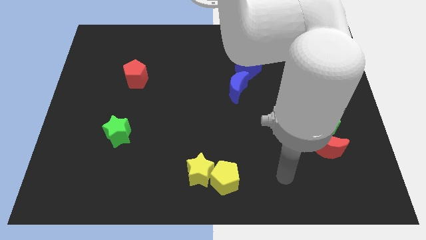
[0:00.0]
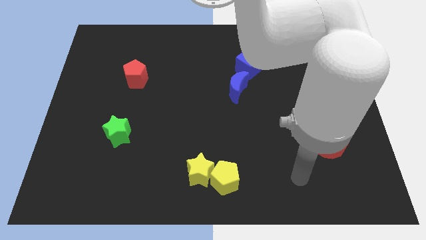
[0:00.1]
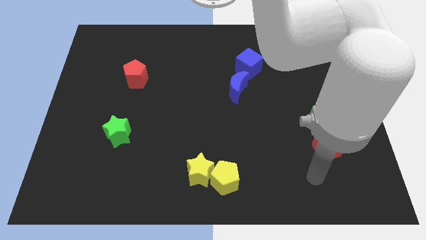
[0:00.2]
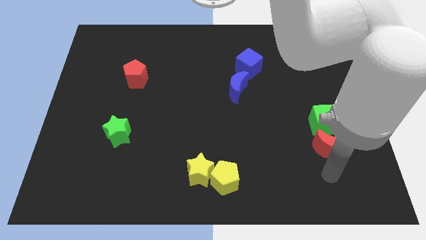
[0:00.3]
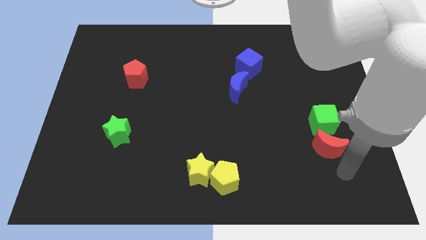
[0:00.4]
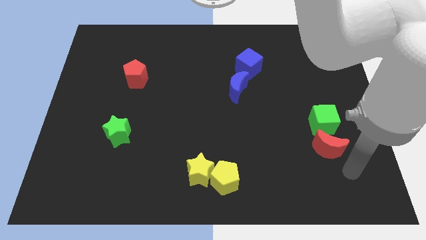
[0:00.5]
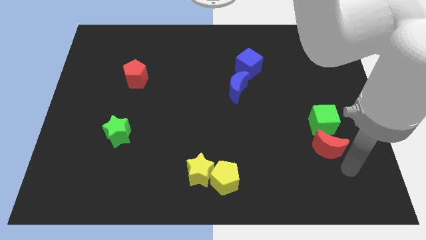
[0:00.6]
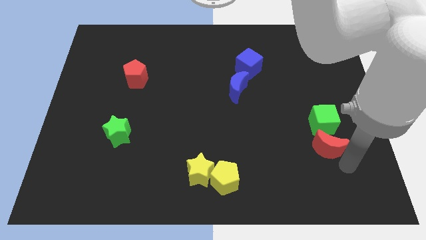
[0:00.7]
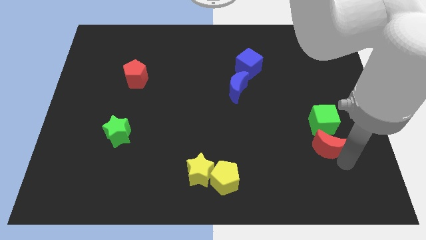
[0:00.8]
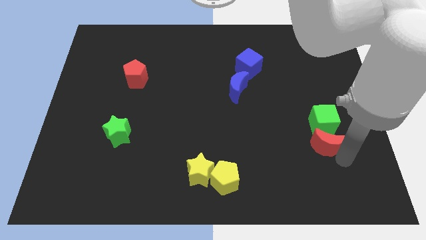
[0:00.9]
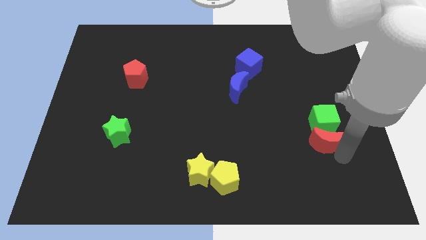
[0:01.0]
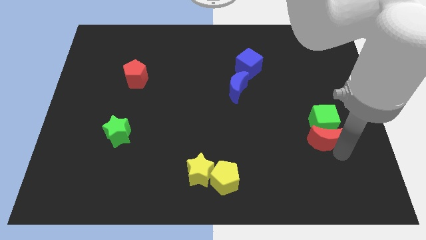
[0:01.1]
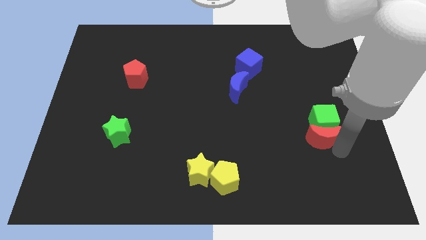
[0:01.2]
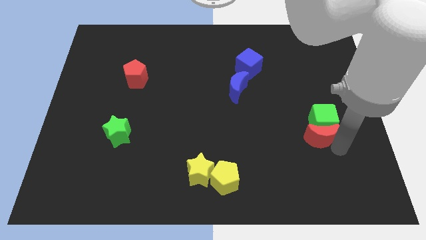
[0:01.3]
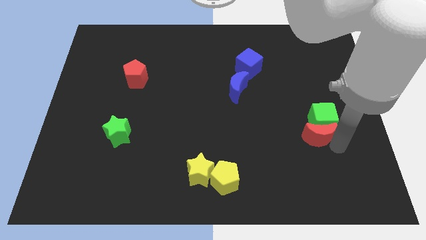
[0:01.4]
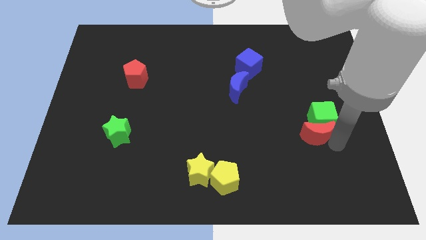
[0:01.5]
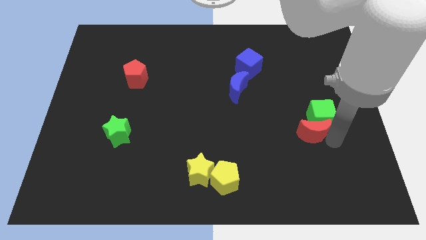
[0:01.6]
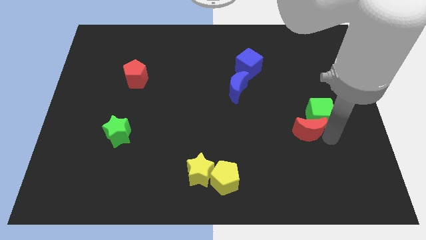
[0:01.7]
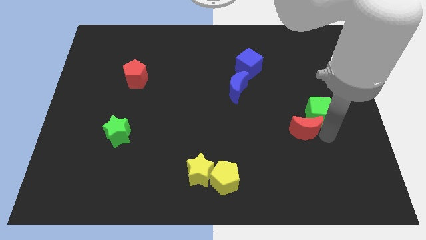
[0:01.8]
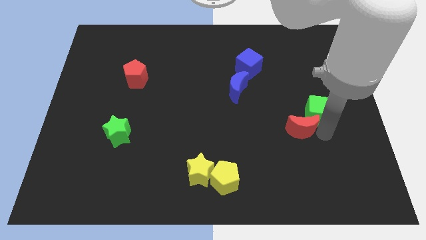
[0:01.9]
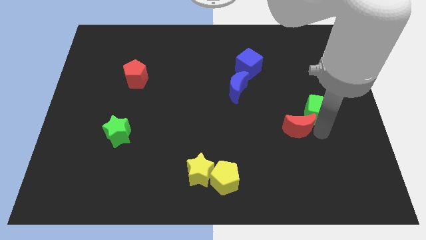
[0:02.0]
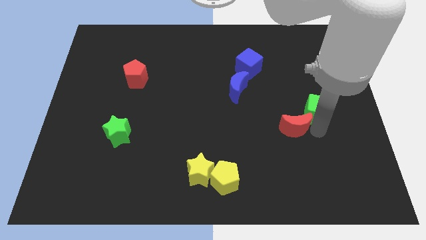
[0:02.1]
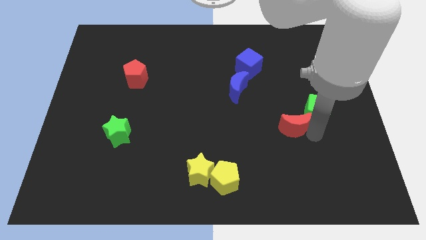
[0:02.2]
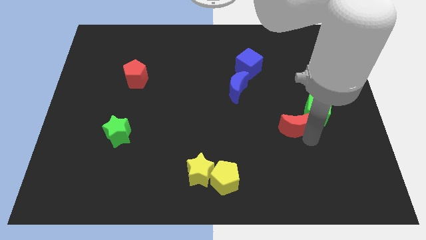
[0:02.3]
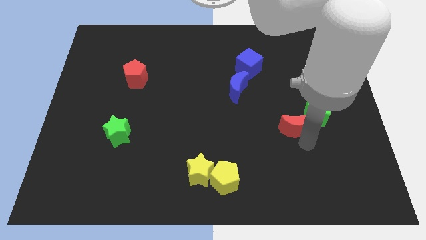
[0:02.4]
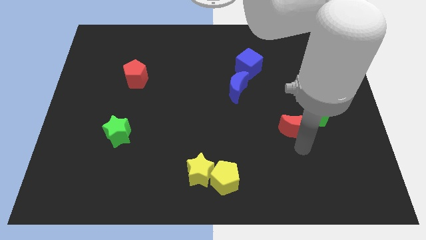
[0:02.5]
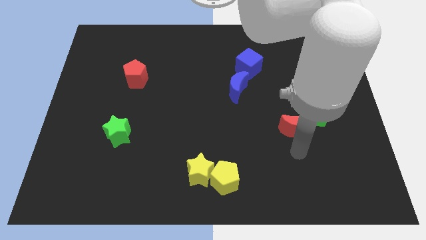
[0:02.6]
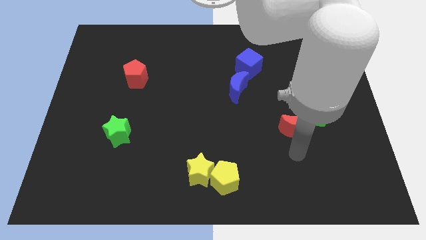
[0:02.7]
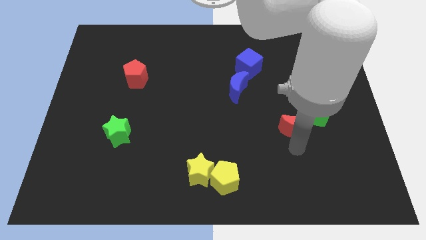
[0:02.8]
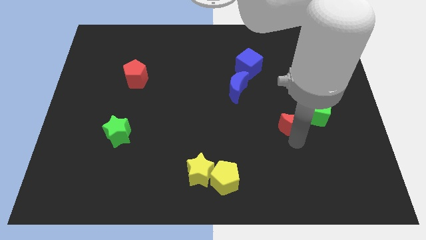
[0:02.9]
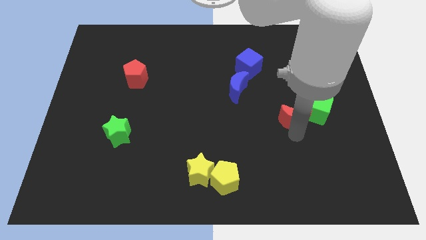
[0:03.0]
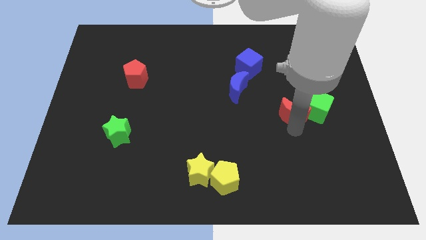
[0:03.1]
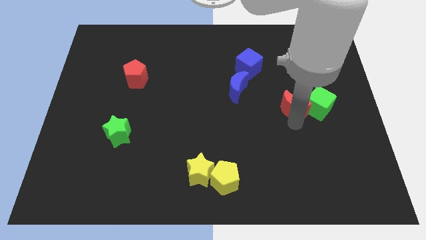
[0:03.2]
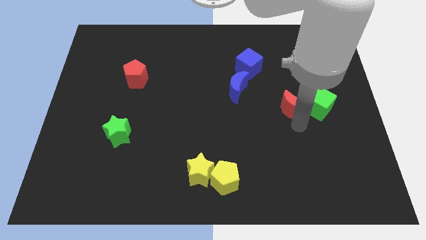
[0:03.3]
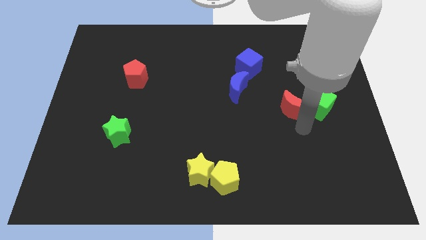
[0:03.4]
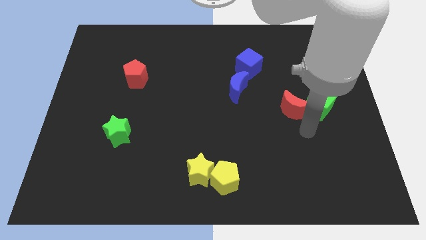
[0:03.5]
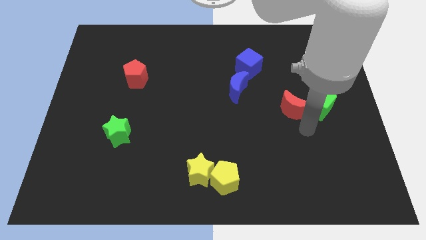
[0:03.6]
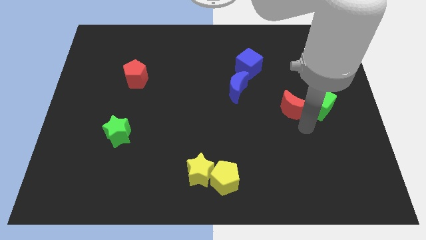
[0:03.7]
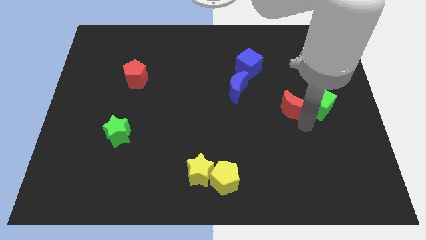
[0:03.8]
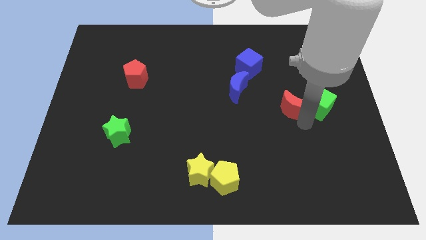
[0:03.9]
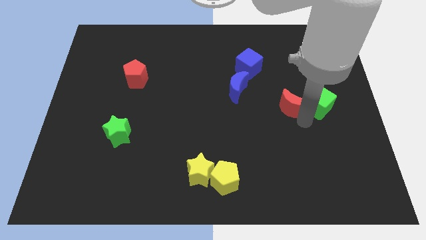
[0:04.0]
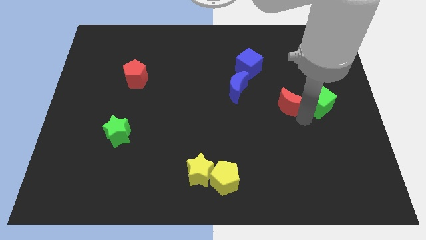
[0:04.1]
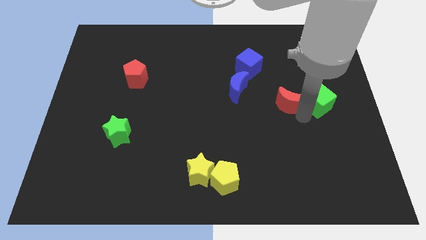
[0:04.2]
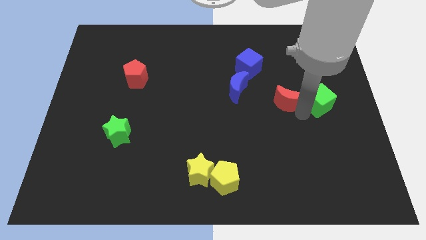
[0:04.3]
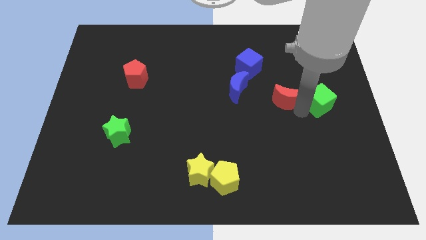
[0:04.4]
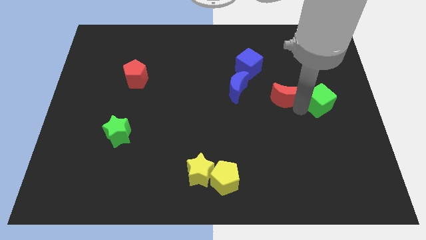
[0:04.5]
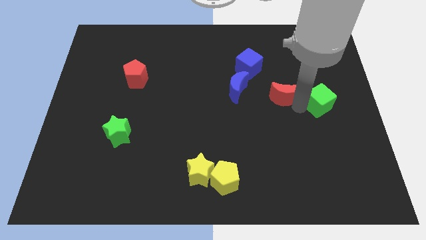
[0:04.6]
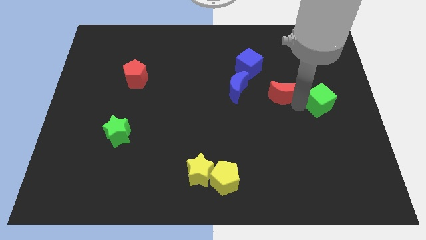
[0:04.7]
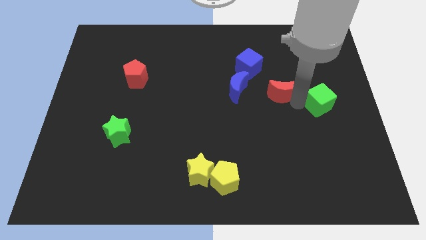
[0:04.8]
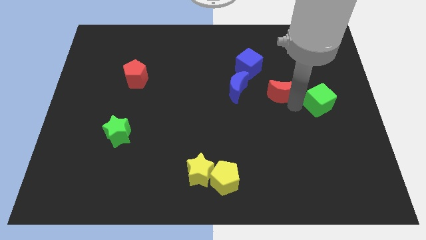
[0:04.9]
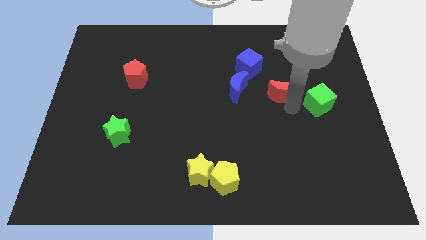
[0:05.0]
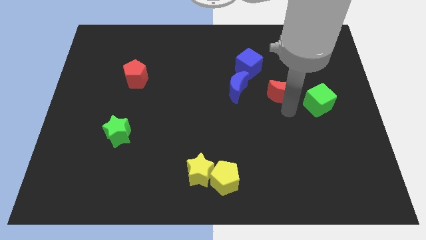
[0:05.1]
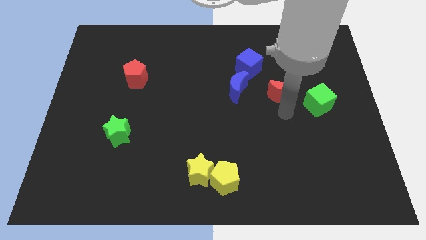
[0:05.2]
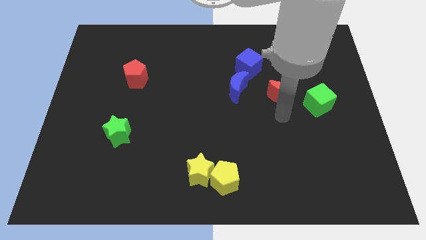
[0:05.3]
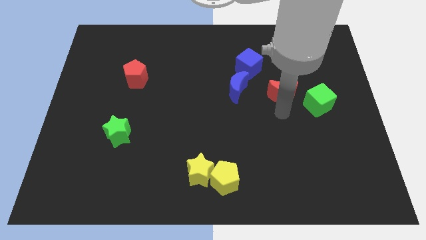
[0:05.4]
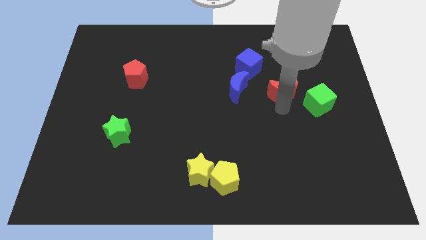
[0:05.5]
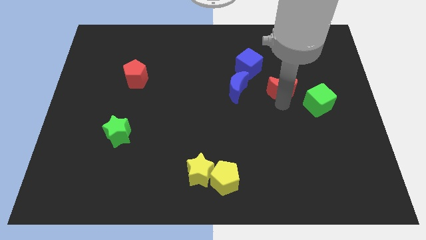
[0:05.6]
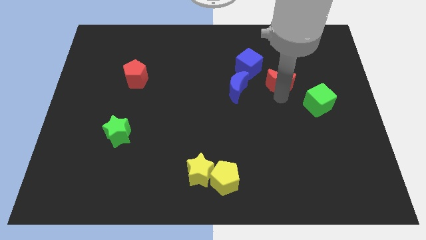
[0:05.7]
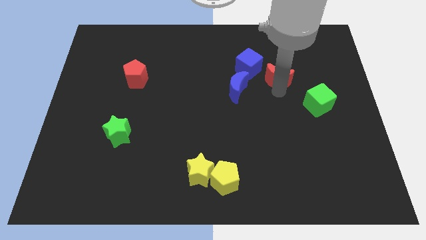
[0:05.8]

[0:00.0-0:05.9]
put the red moon to the right of the blue cube

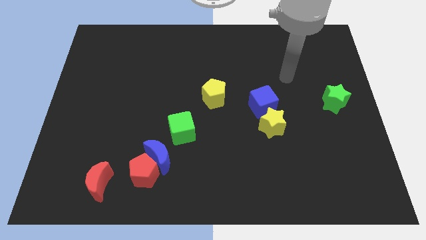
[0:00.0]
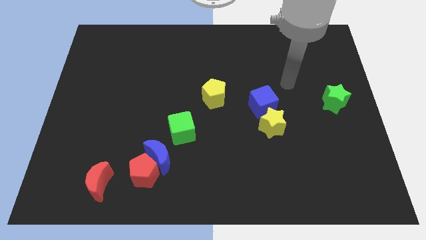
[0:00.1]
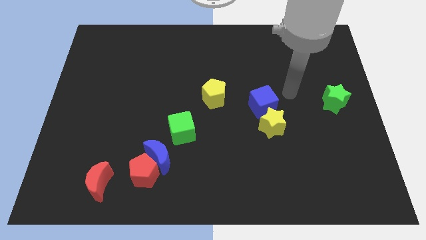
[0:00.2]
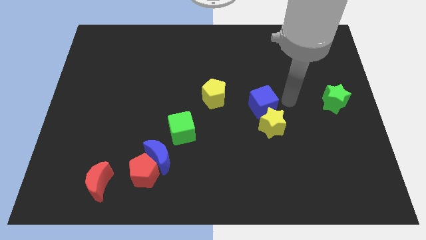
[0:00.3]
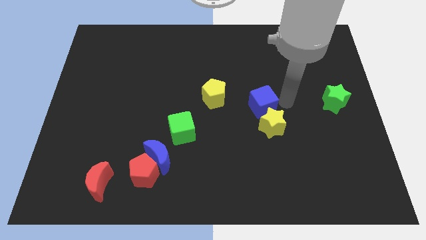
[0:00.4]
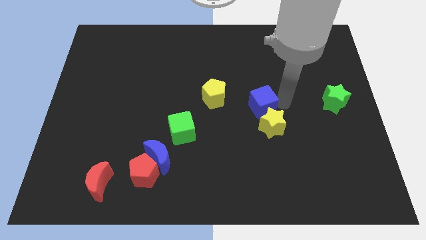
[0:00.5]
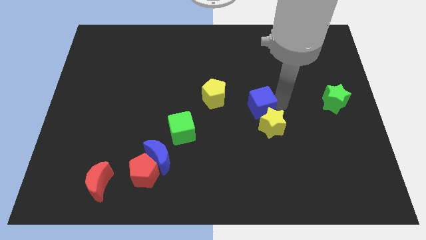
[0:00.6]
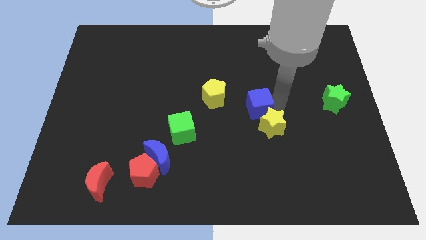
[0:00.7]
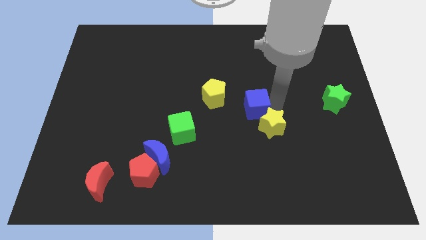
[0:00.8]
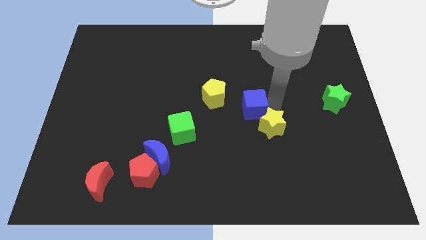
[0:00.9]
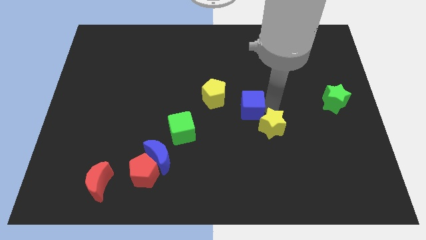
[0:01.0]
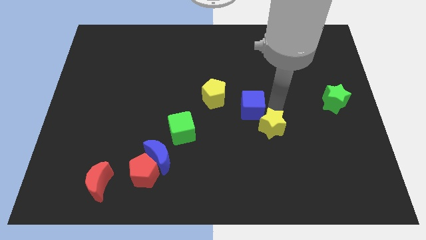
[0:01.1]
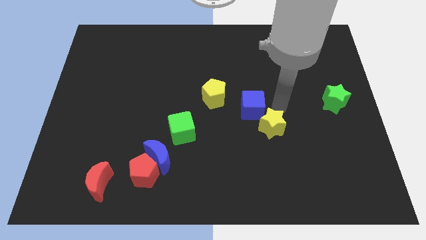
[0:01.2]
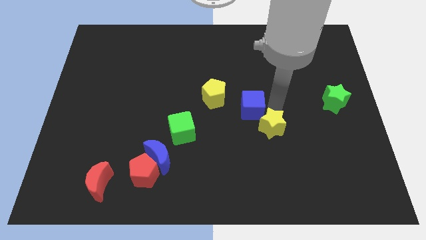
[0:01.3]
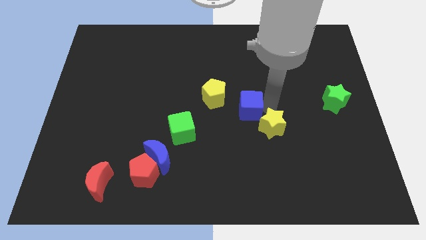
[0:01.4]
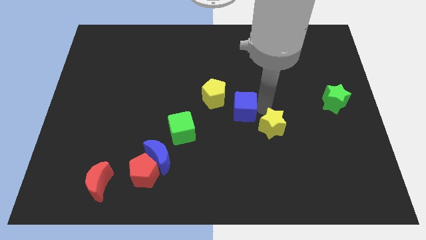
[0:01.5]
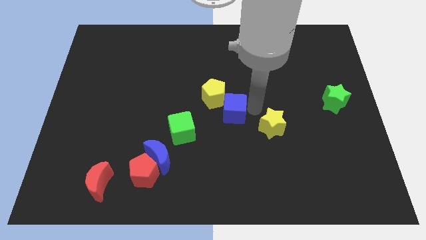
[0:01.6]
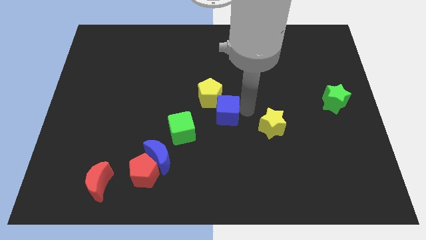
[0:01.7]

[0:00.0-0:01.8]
slide the blue cube to the top right of the green cube
